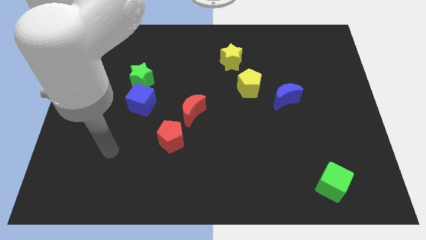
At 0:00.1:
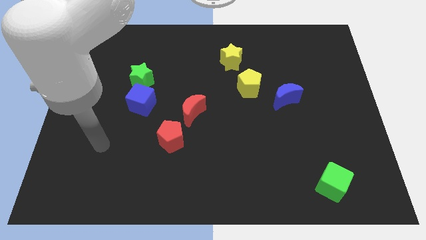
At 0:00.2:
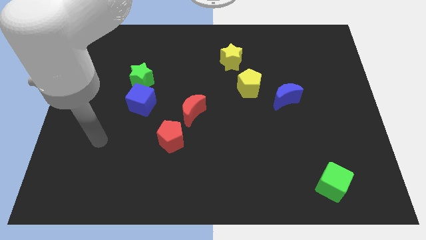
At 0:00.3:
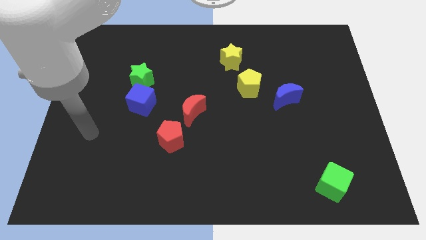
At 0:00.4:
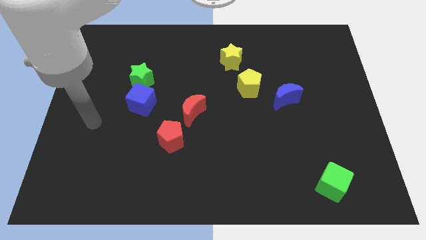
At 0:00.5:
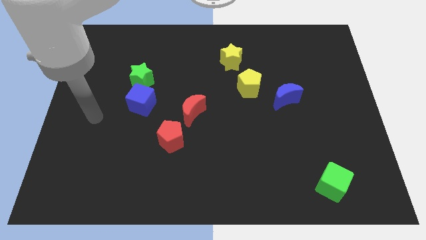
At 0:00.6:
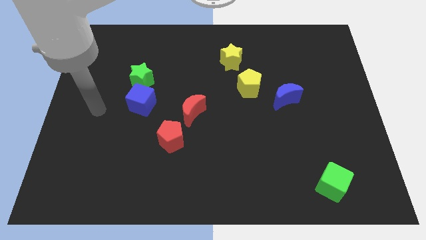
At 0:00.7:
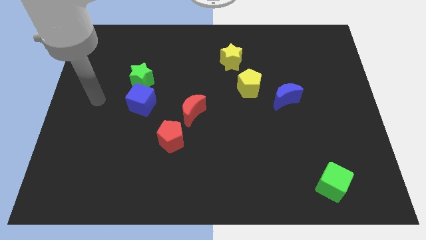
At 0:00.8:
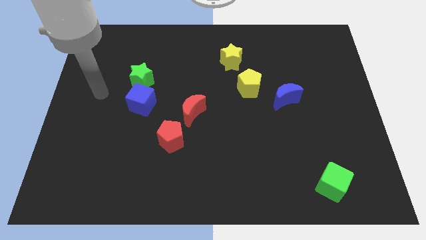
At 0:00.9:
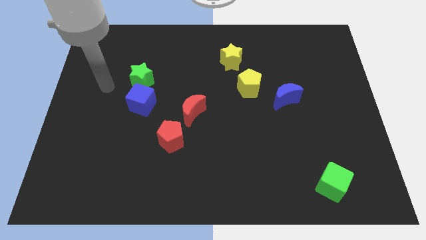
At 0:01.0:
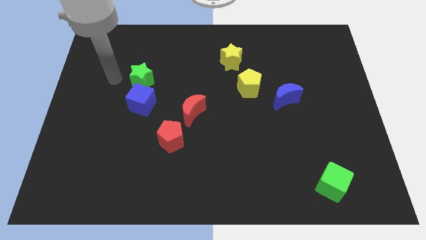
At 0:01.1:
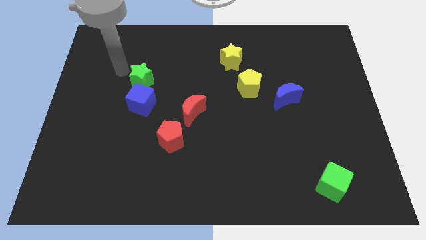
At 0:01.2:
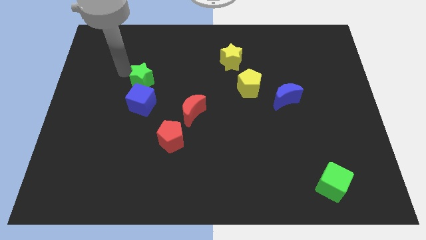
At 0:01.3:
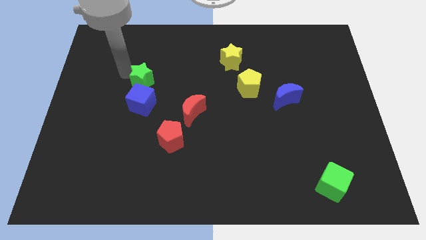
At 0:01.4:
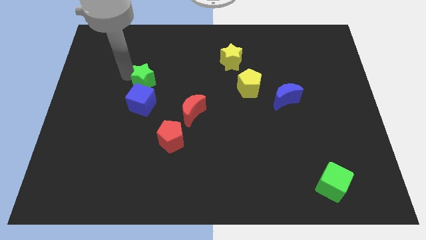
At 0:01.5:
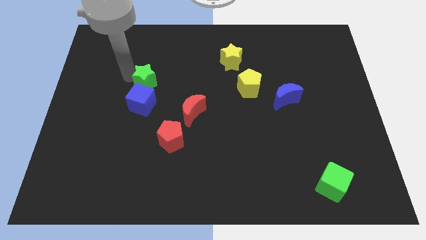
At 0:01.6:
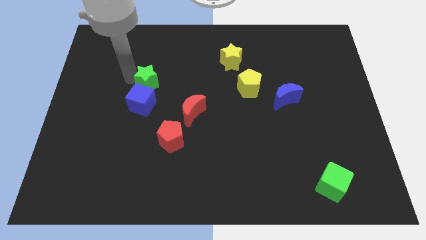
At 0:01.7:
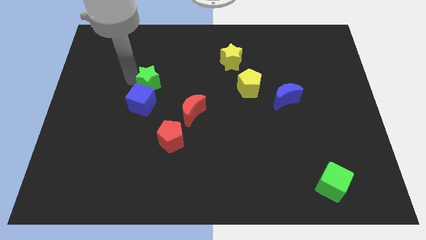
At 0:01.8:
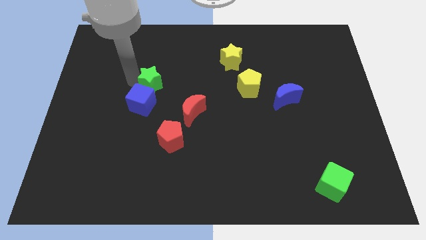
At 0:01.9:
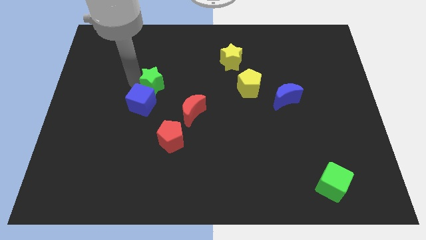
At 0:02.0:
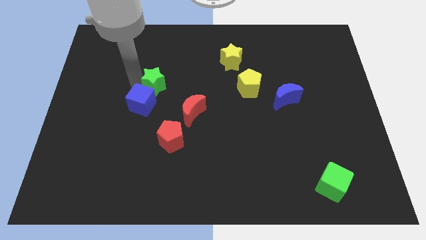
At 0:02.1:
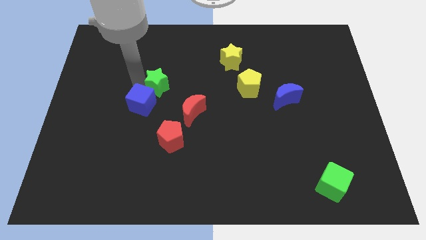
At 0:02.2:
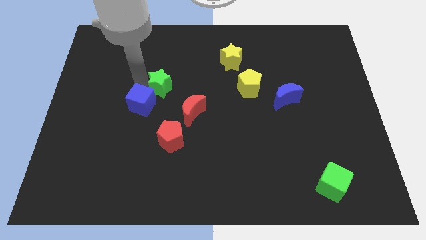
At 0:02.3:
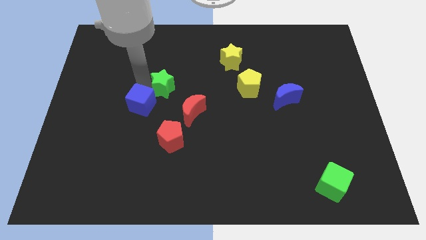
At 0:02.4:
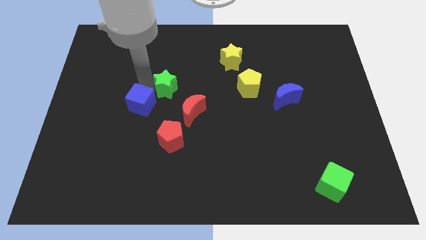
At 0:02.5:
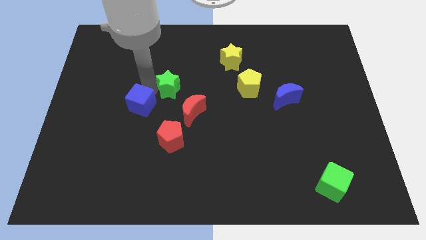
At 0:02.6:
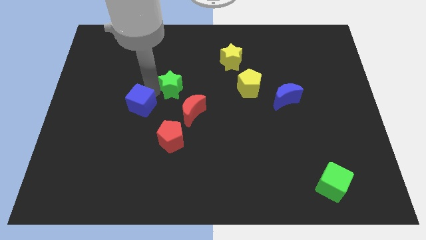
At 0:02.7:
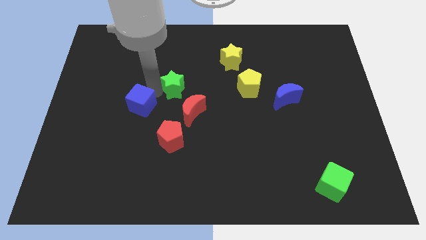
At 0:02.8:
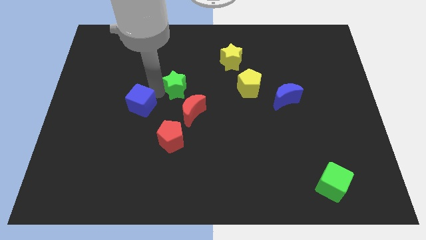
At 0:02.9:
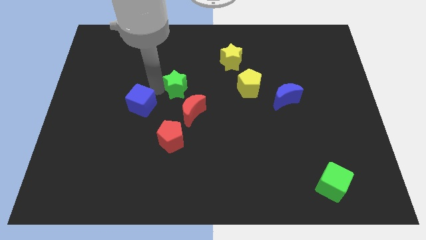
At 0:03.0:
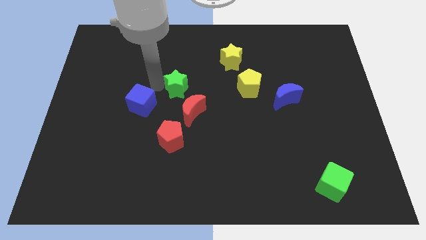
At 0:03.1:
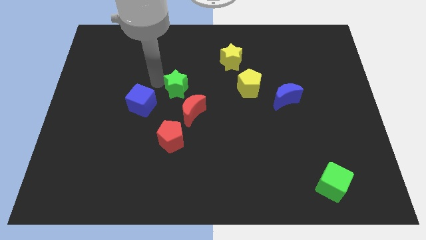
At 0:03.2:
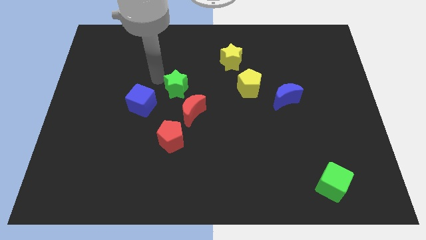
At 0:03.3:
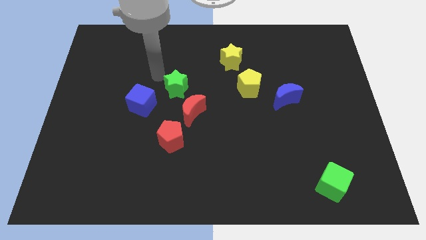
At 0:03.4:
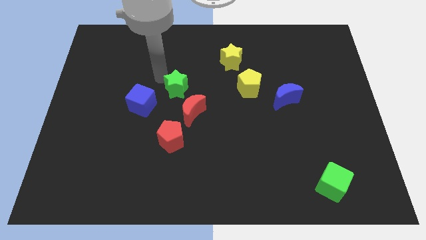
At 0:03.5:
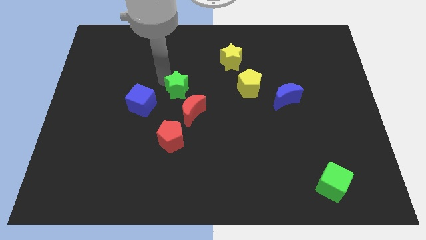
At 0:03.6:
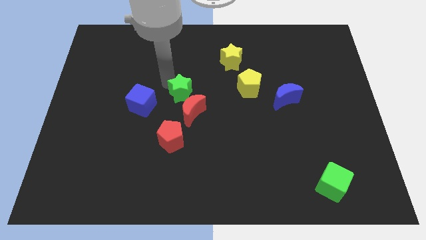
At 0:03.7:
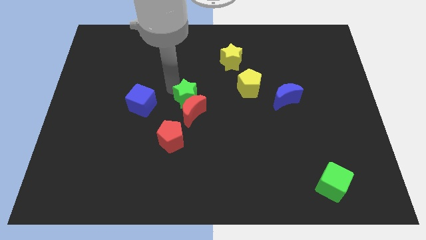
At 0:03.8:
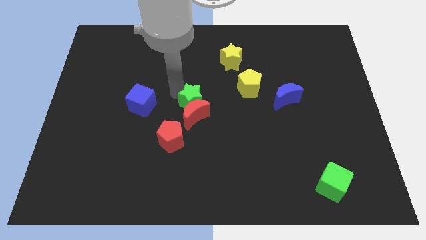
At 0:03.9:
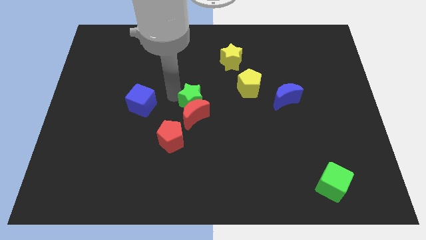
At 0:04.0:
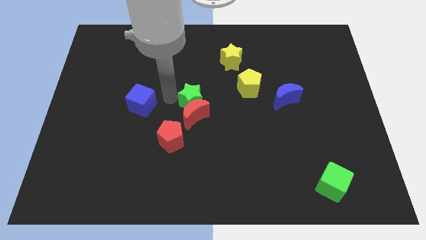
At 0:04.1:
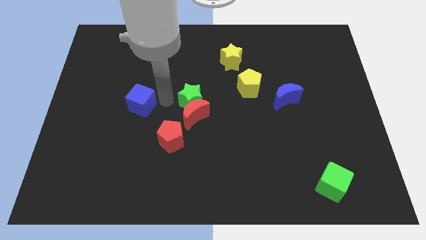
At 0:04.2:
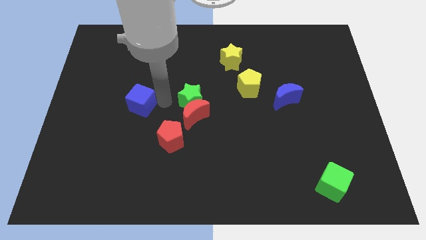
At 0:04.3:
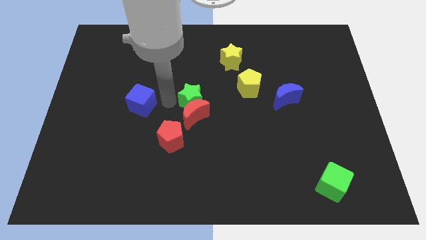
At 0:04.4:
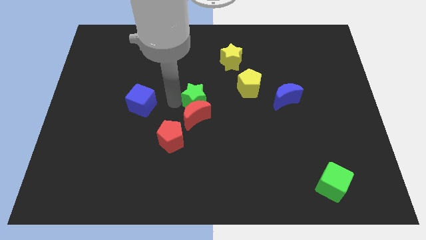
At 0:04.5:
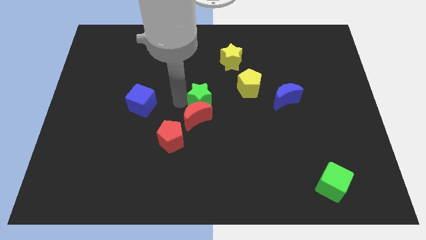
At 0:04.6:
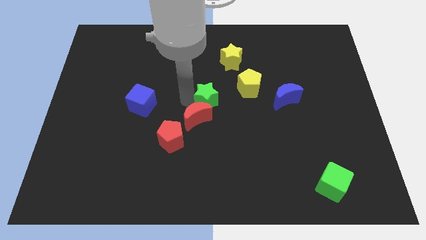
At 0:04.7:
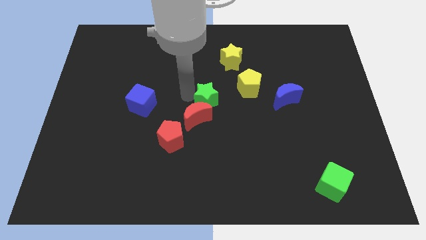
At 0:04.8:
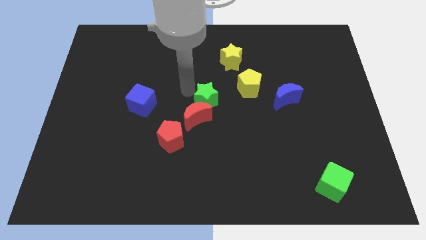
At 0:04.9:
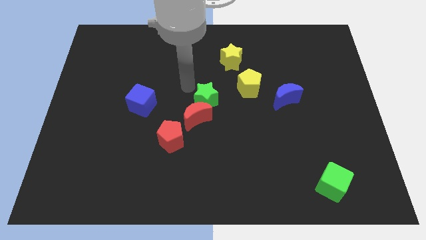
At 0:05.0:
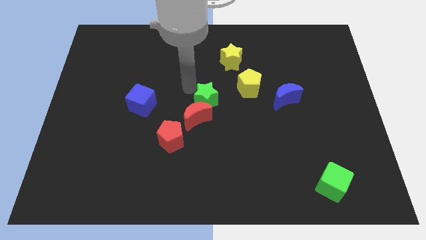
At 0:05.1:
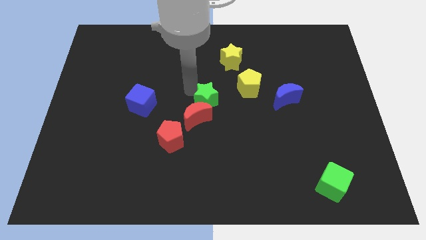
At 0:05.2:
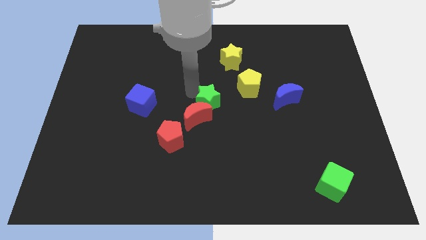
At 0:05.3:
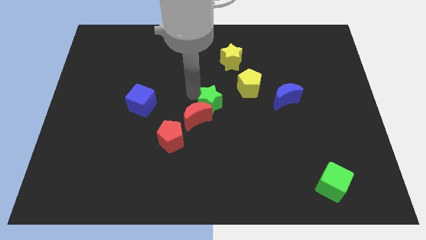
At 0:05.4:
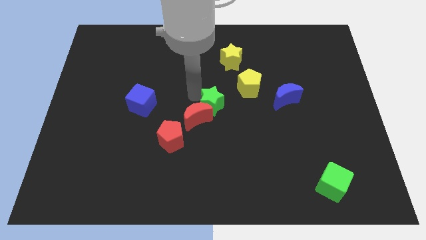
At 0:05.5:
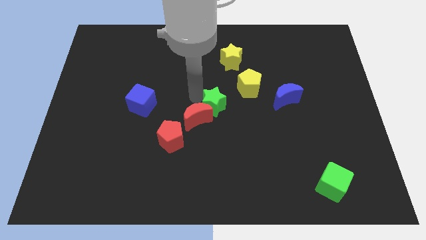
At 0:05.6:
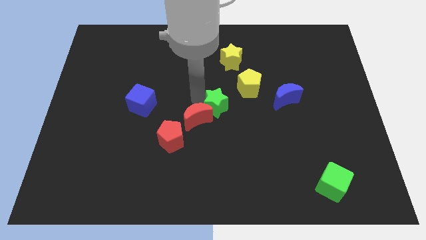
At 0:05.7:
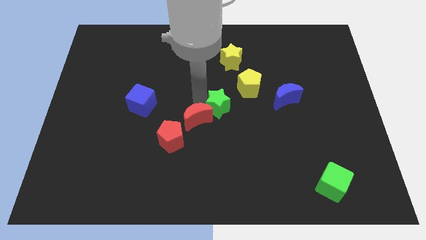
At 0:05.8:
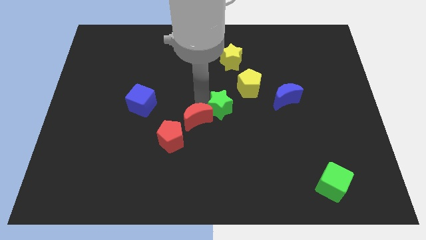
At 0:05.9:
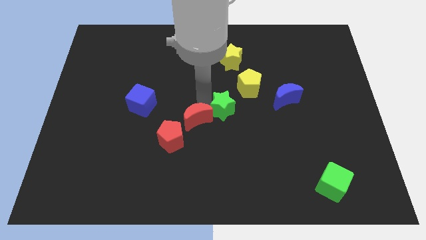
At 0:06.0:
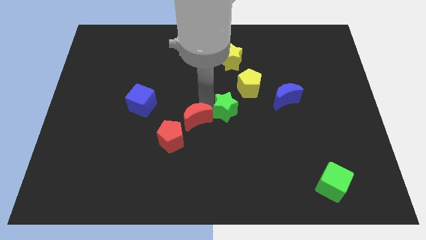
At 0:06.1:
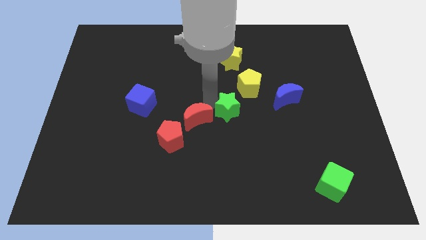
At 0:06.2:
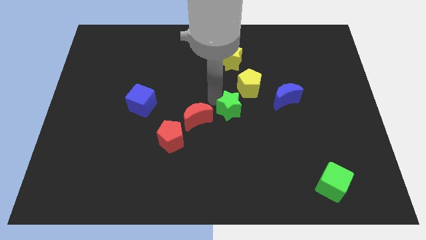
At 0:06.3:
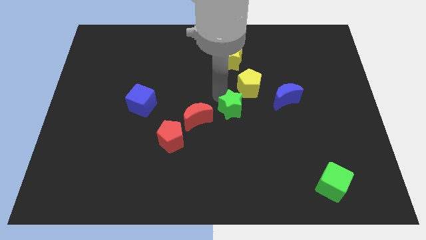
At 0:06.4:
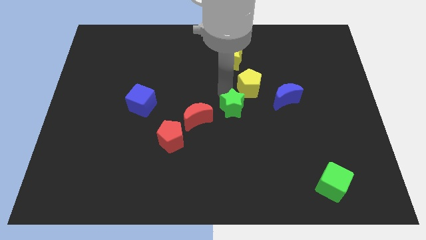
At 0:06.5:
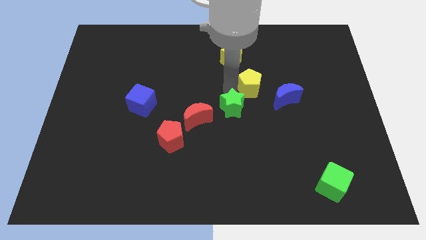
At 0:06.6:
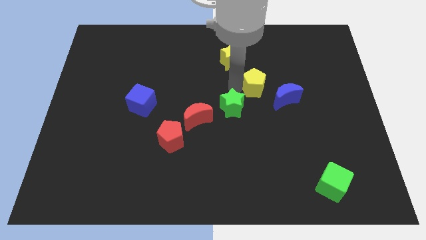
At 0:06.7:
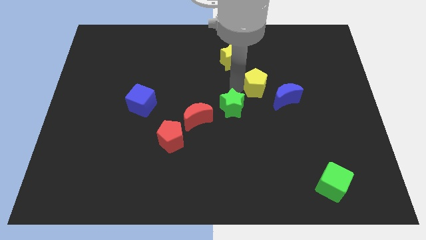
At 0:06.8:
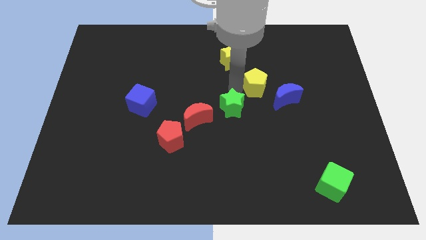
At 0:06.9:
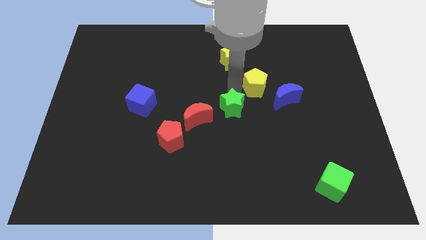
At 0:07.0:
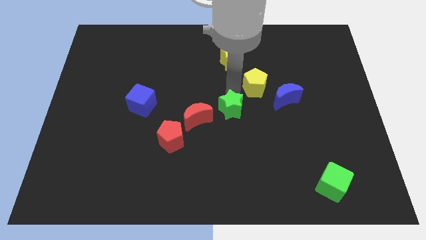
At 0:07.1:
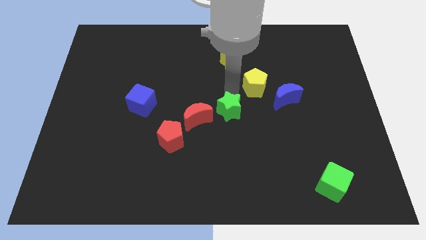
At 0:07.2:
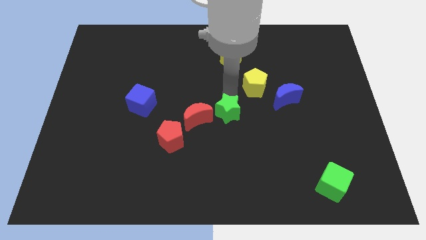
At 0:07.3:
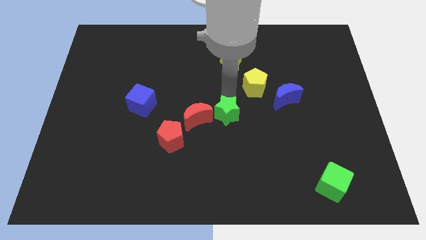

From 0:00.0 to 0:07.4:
move the green star down and to the right diagonally

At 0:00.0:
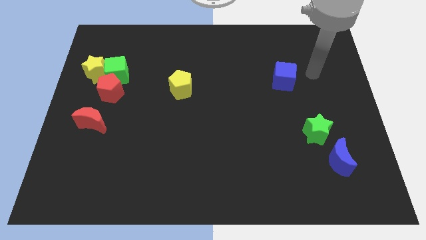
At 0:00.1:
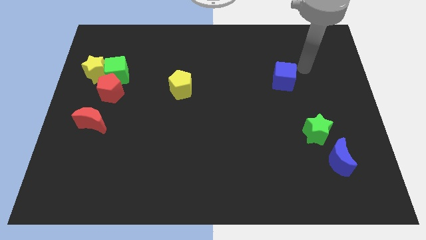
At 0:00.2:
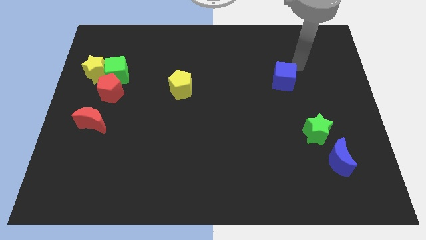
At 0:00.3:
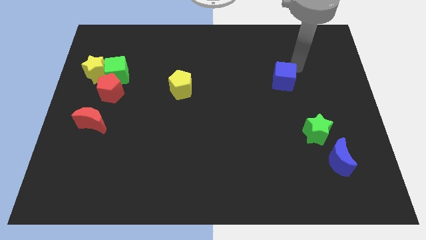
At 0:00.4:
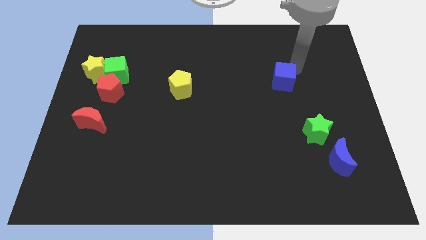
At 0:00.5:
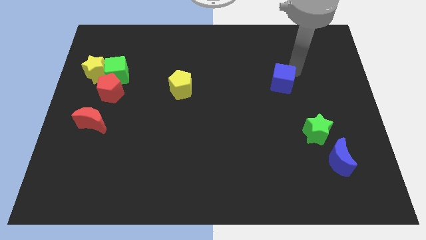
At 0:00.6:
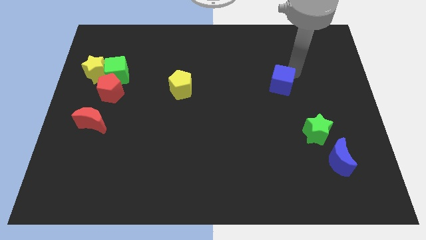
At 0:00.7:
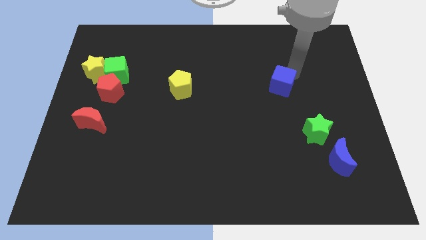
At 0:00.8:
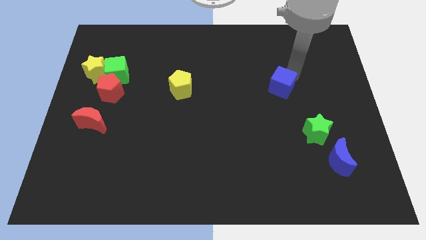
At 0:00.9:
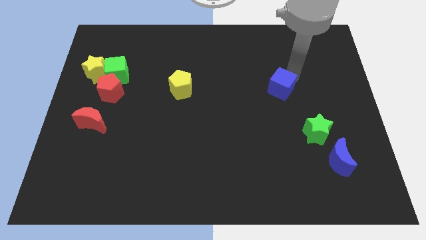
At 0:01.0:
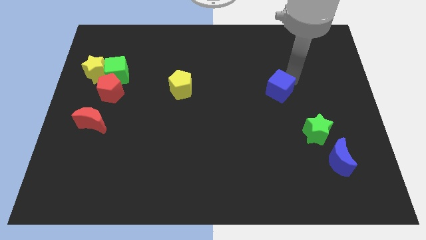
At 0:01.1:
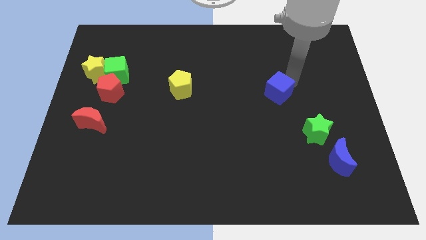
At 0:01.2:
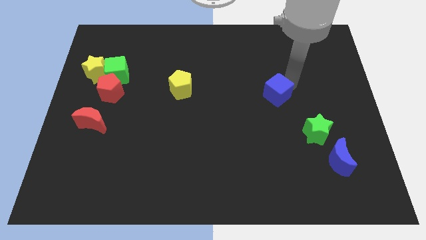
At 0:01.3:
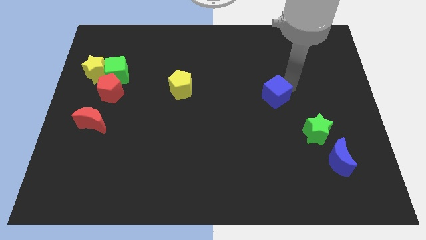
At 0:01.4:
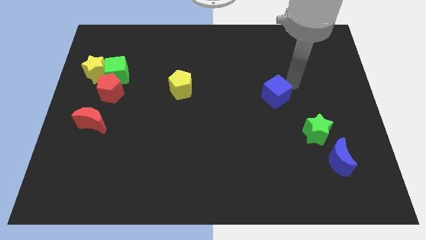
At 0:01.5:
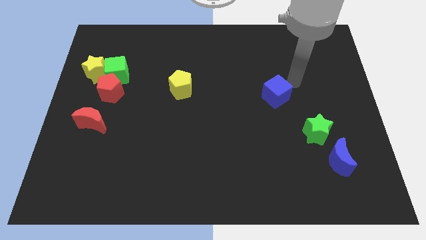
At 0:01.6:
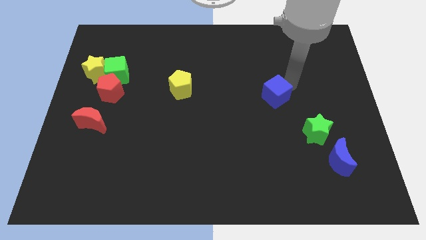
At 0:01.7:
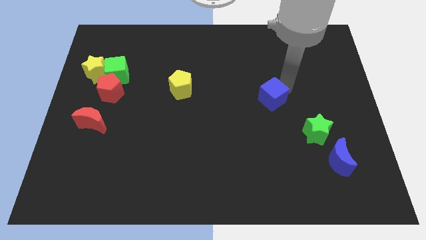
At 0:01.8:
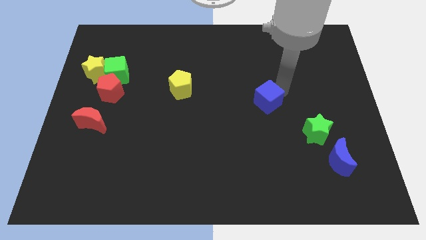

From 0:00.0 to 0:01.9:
slightly slide the blue cube downwards and then left
